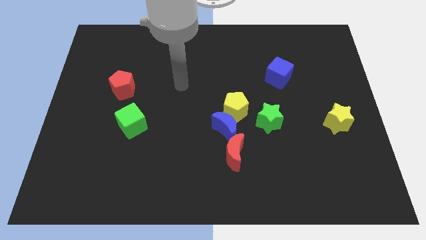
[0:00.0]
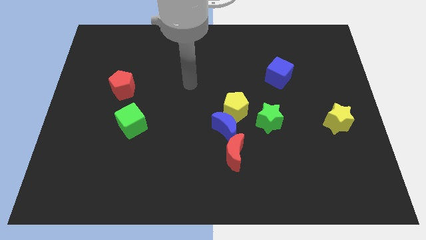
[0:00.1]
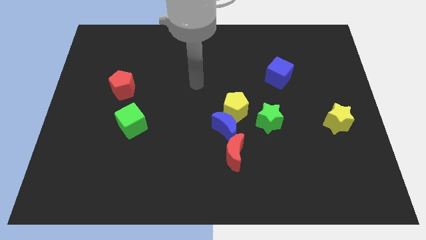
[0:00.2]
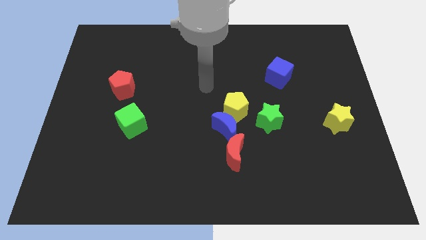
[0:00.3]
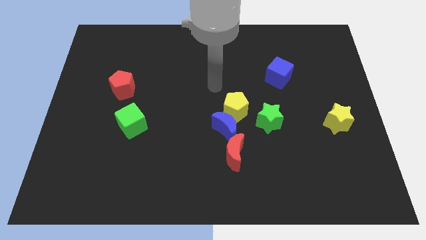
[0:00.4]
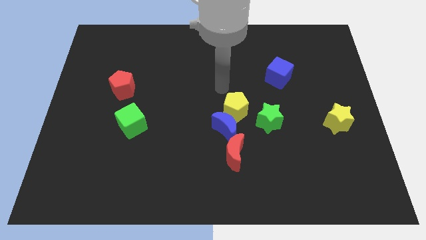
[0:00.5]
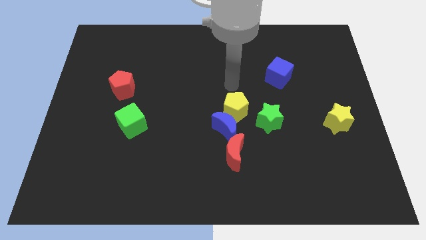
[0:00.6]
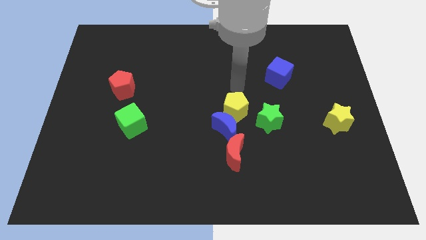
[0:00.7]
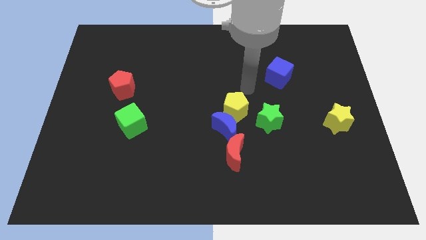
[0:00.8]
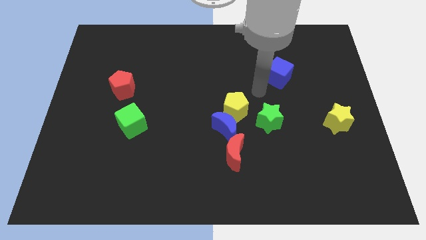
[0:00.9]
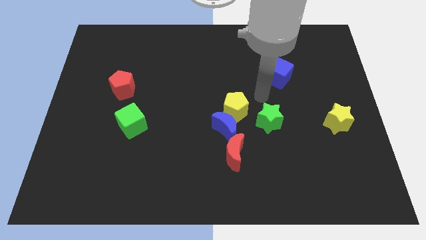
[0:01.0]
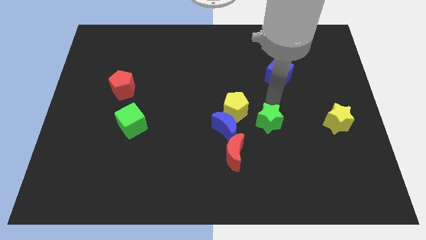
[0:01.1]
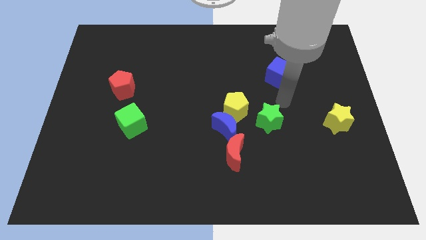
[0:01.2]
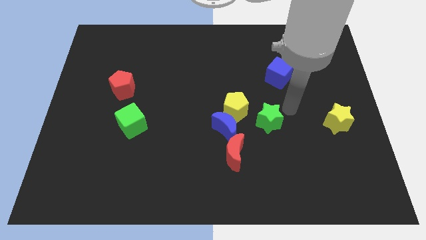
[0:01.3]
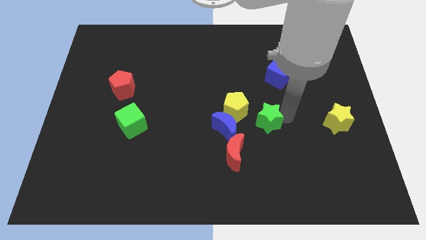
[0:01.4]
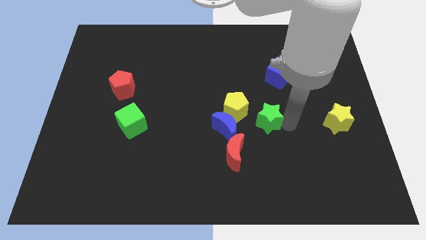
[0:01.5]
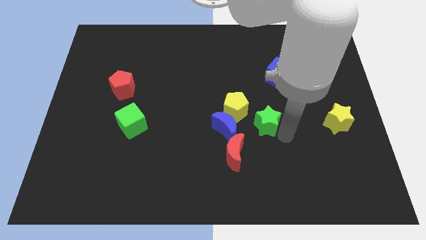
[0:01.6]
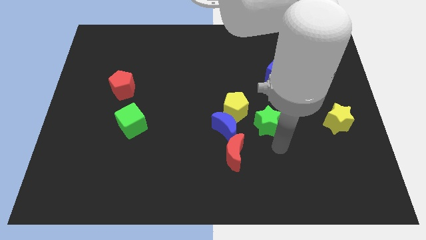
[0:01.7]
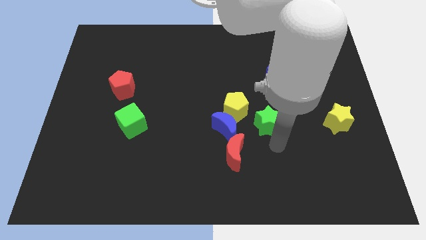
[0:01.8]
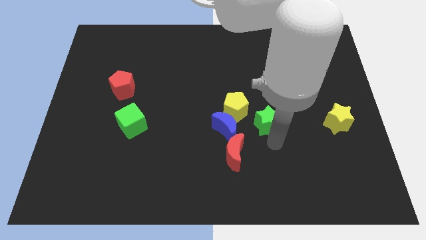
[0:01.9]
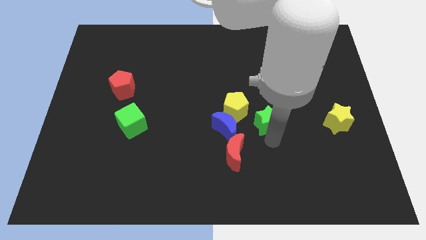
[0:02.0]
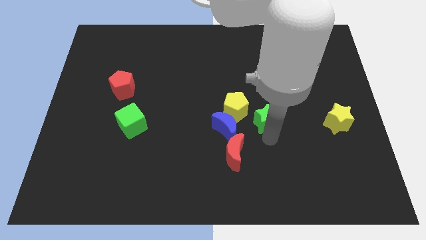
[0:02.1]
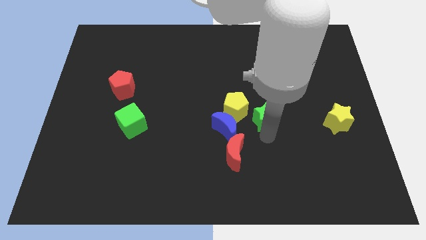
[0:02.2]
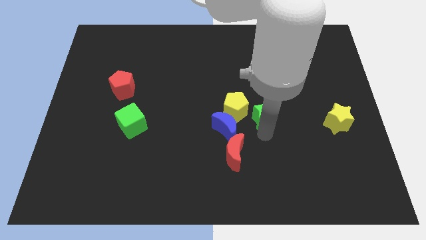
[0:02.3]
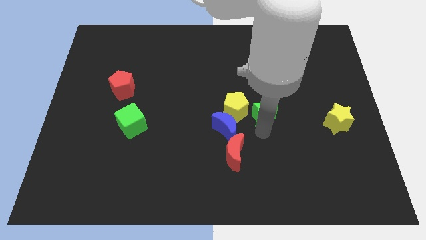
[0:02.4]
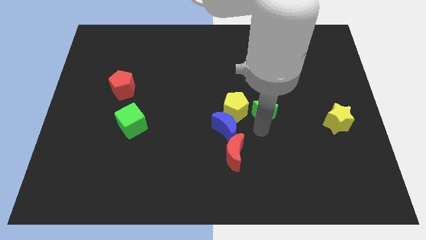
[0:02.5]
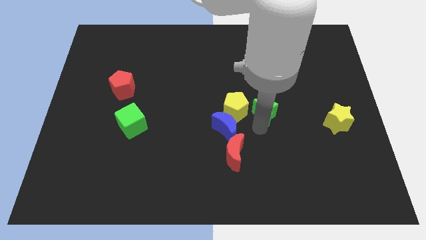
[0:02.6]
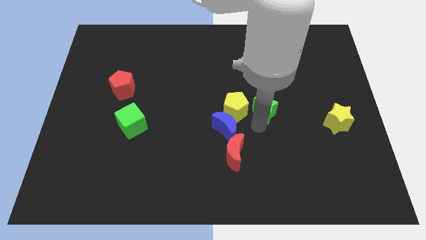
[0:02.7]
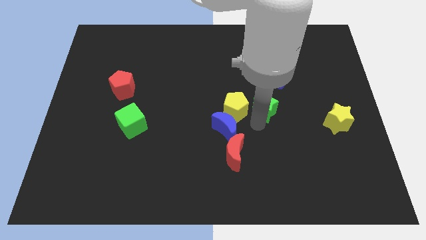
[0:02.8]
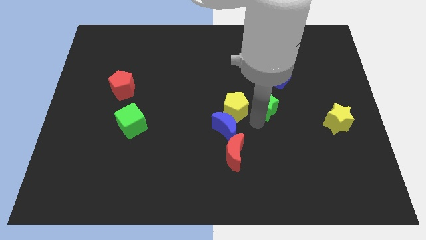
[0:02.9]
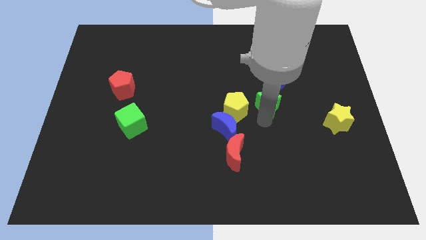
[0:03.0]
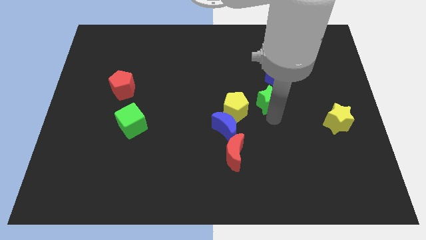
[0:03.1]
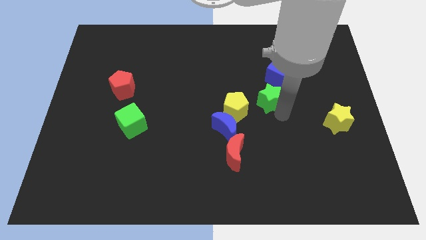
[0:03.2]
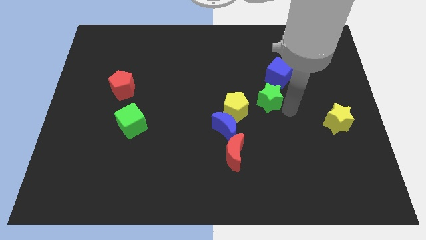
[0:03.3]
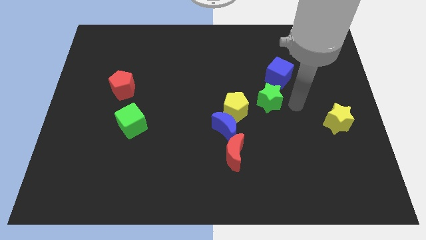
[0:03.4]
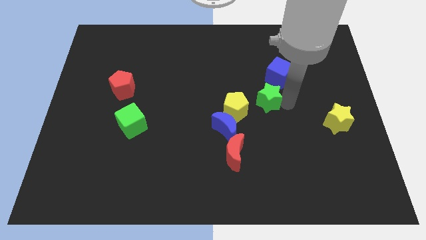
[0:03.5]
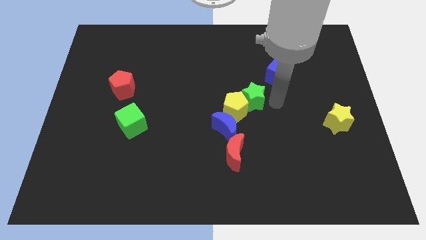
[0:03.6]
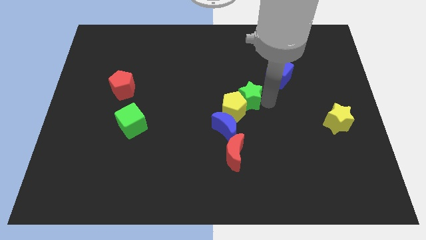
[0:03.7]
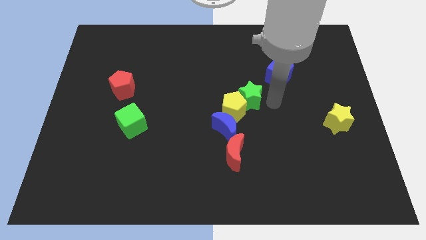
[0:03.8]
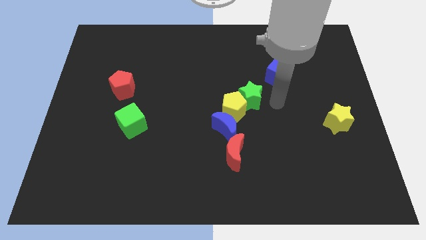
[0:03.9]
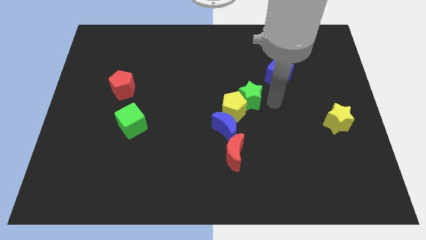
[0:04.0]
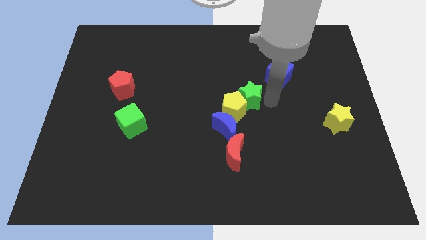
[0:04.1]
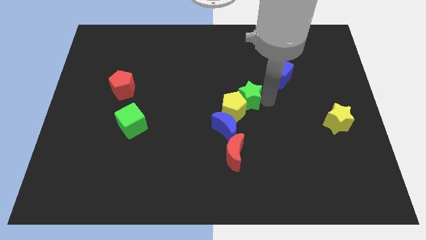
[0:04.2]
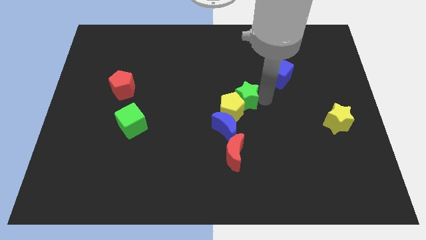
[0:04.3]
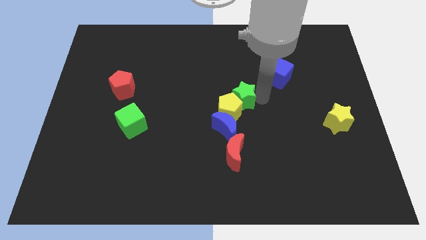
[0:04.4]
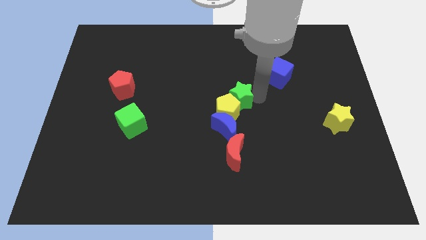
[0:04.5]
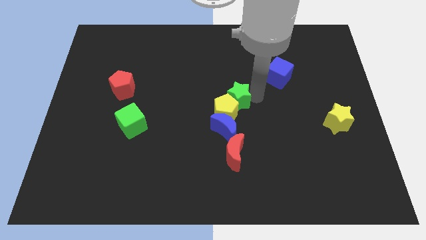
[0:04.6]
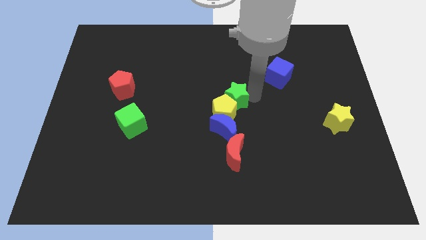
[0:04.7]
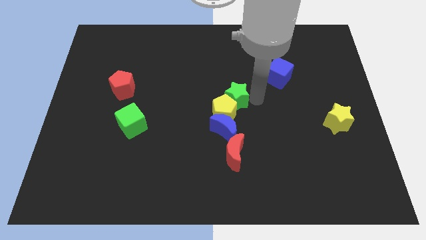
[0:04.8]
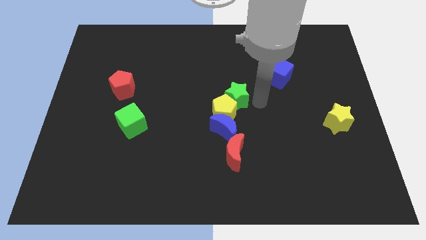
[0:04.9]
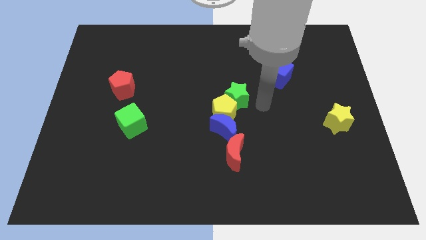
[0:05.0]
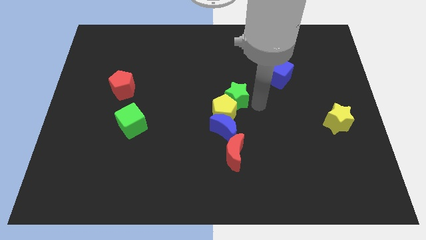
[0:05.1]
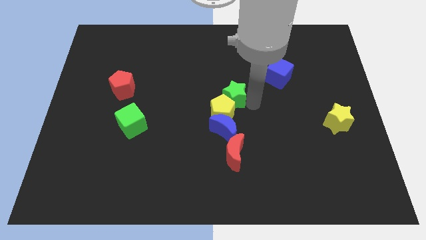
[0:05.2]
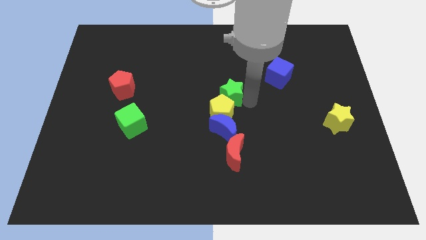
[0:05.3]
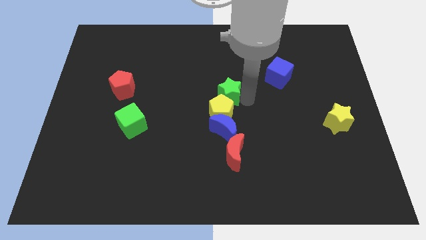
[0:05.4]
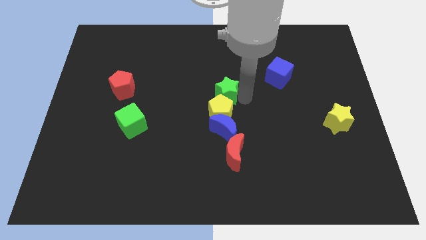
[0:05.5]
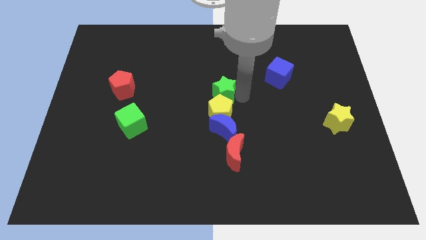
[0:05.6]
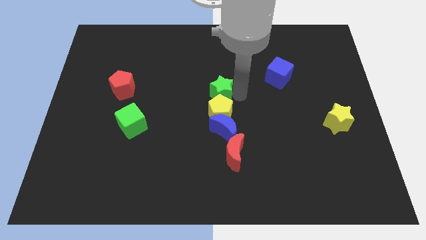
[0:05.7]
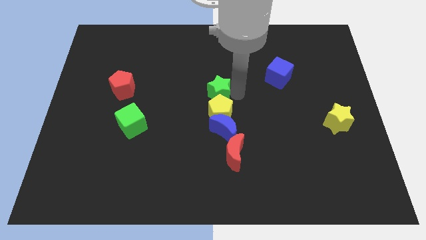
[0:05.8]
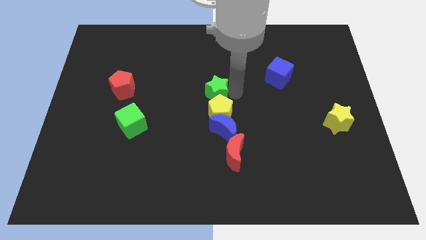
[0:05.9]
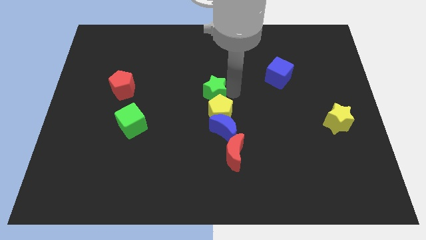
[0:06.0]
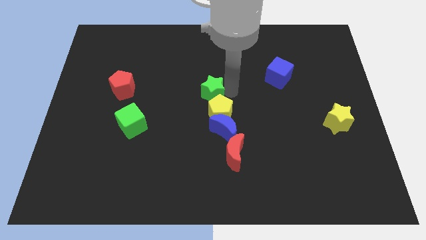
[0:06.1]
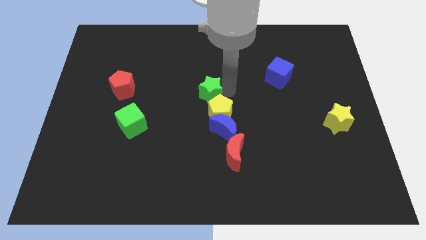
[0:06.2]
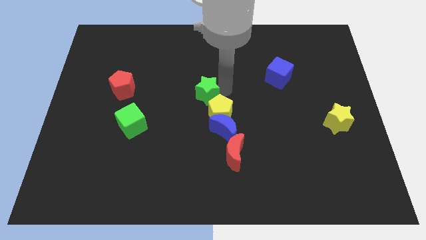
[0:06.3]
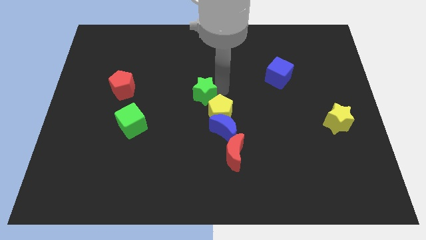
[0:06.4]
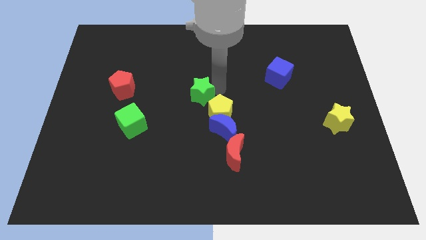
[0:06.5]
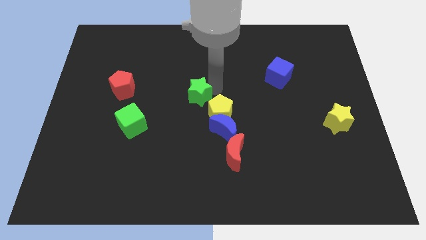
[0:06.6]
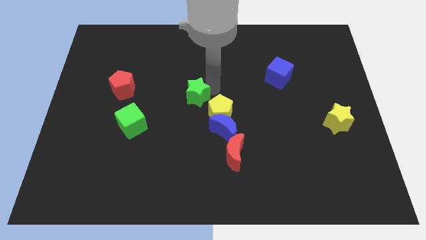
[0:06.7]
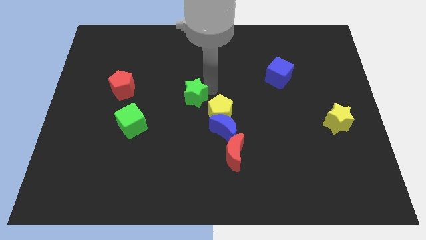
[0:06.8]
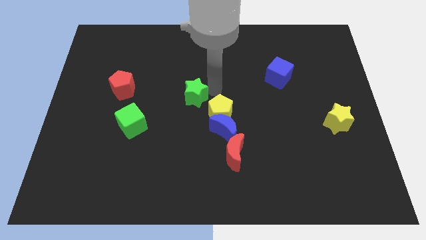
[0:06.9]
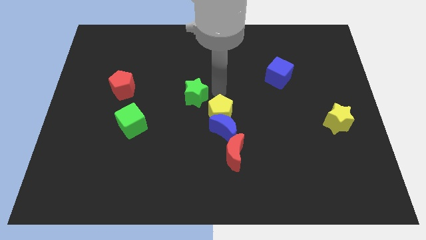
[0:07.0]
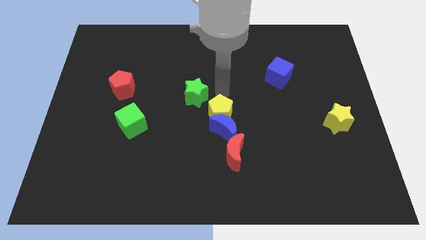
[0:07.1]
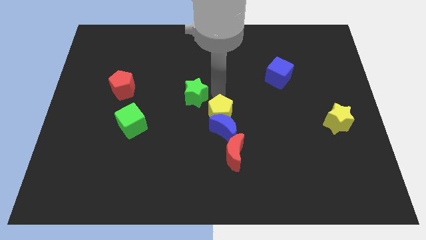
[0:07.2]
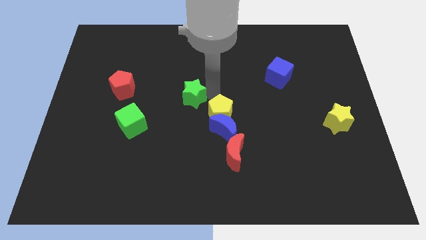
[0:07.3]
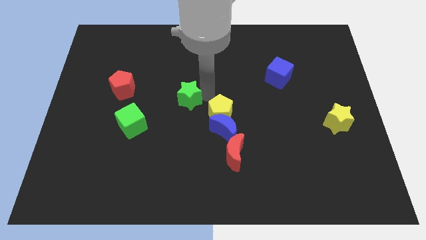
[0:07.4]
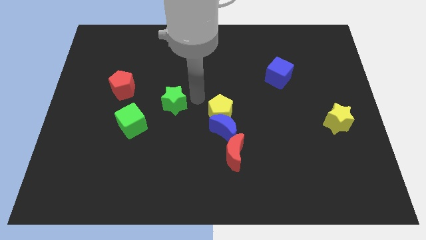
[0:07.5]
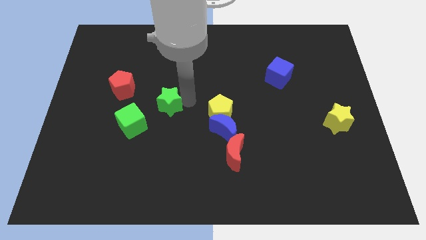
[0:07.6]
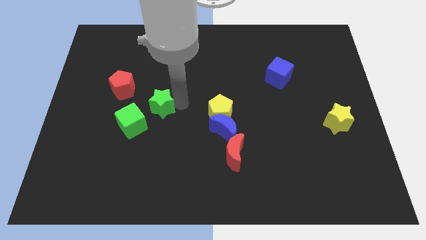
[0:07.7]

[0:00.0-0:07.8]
put the green star to the bottom right of the red pentagon
